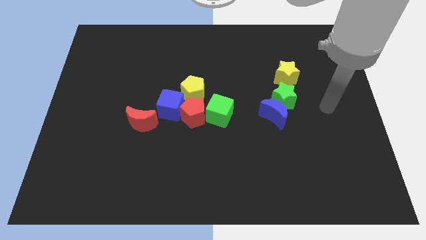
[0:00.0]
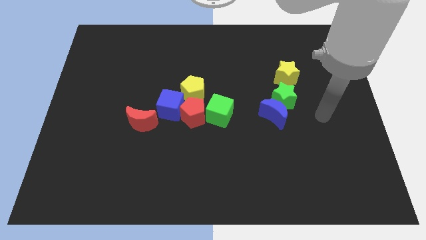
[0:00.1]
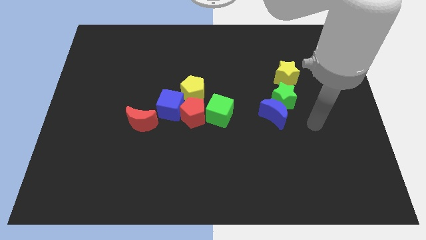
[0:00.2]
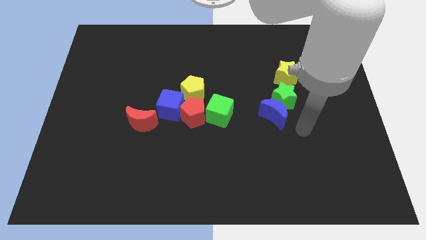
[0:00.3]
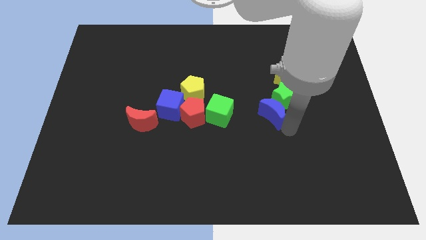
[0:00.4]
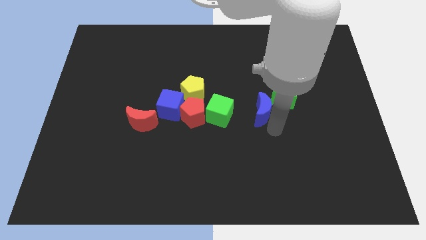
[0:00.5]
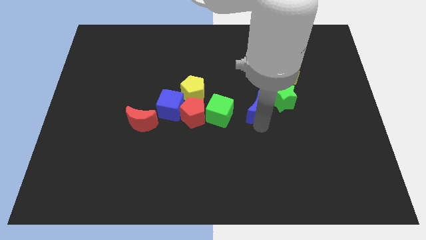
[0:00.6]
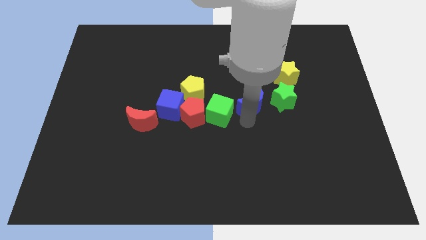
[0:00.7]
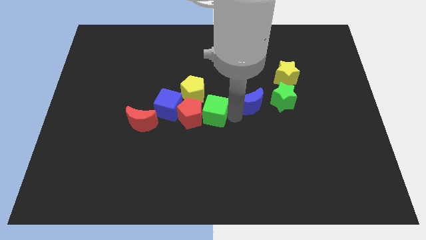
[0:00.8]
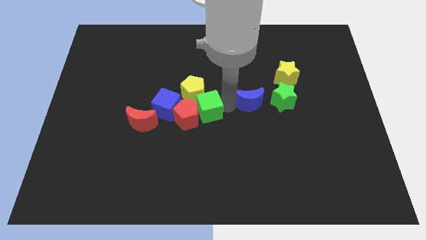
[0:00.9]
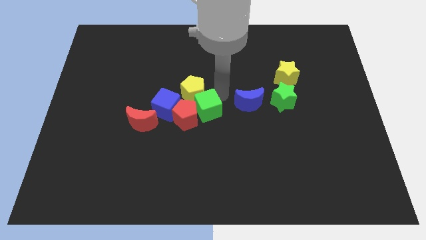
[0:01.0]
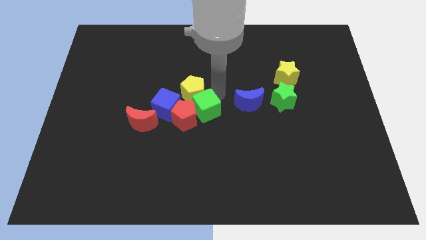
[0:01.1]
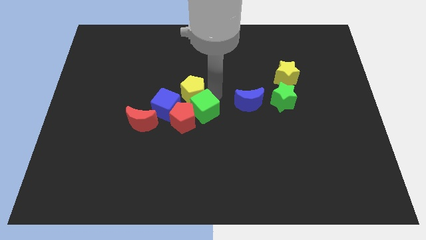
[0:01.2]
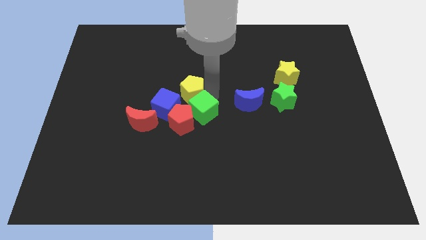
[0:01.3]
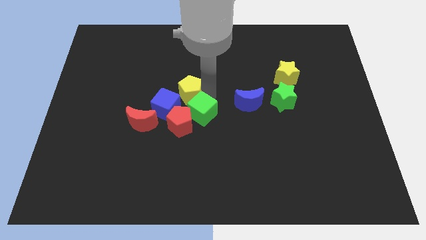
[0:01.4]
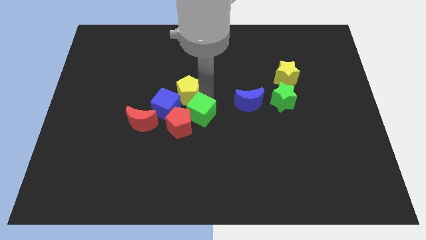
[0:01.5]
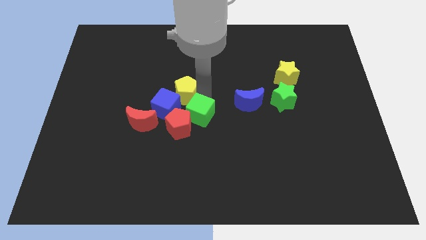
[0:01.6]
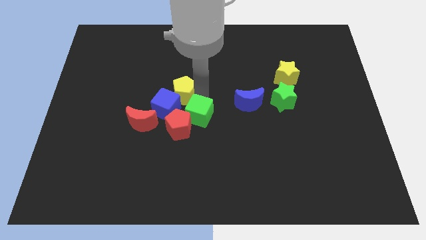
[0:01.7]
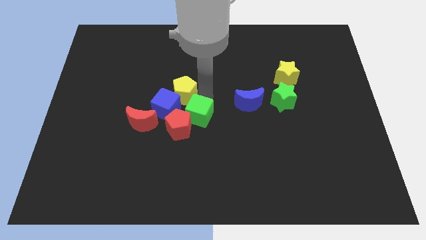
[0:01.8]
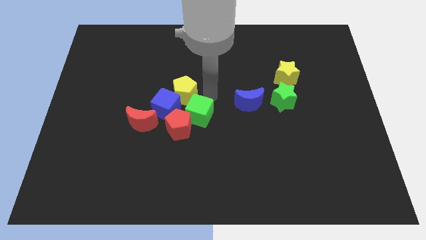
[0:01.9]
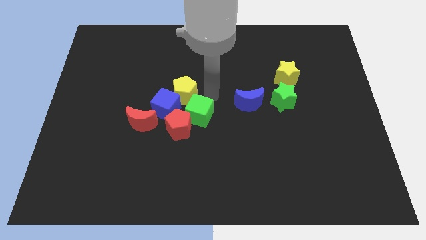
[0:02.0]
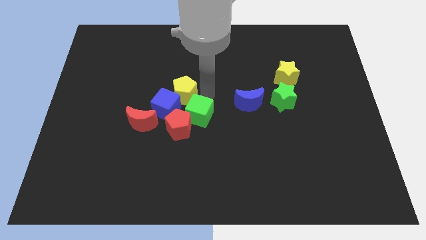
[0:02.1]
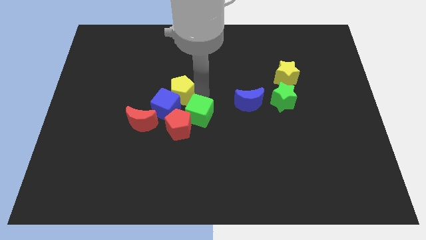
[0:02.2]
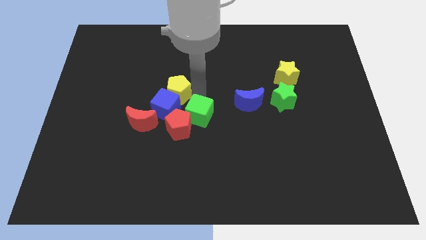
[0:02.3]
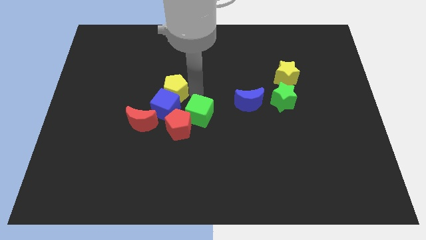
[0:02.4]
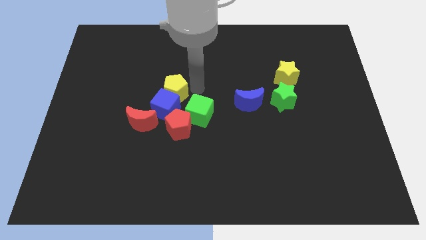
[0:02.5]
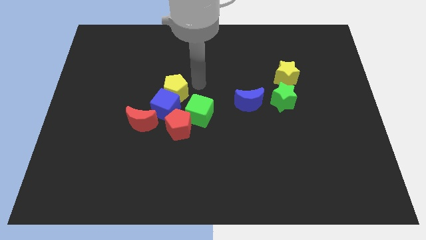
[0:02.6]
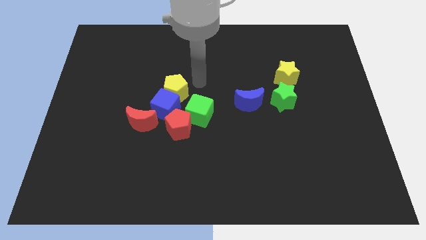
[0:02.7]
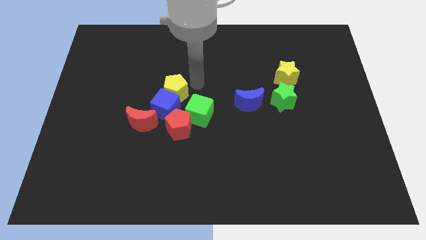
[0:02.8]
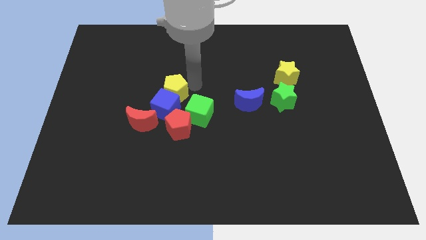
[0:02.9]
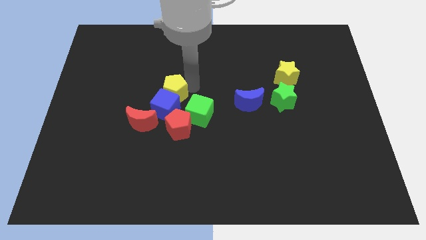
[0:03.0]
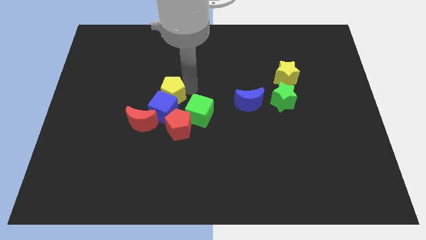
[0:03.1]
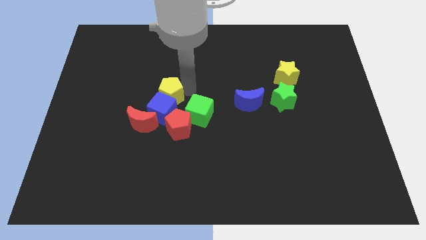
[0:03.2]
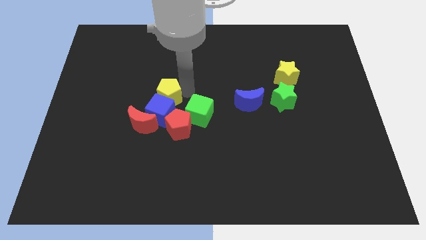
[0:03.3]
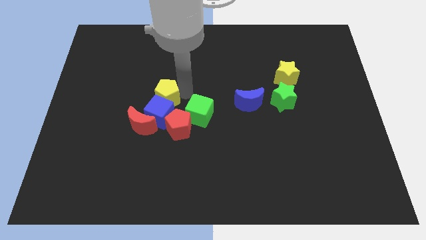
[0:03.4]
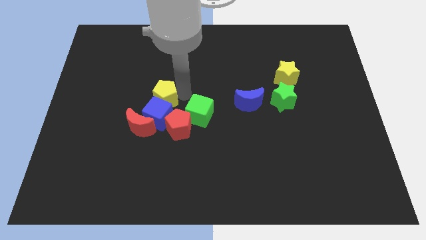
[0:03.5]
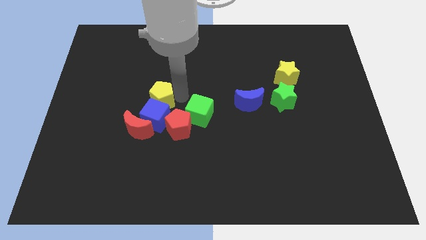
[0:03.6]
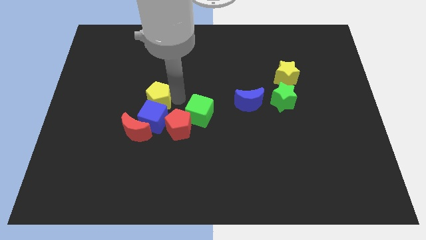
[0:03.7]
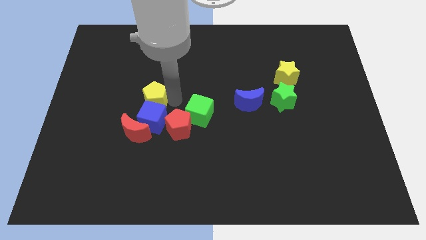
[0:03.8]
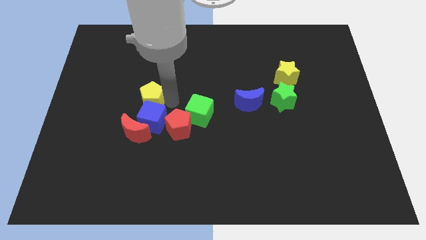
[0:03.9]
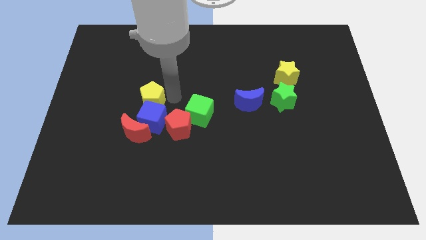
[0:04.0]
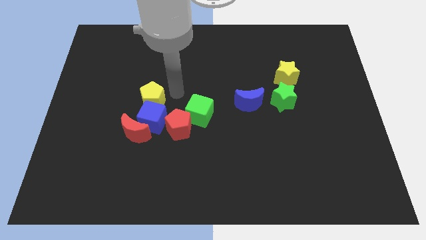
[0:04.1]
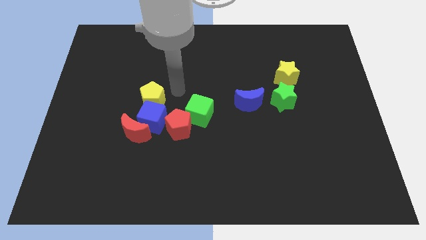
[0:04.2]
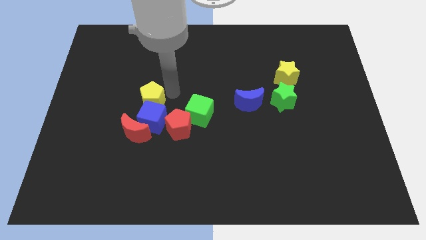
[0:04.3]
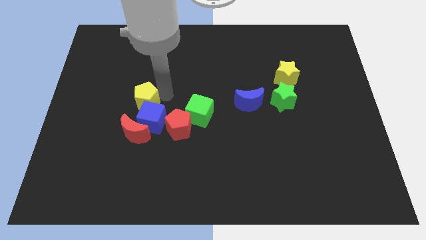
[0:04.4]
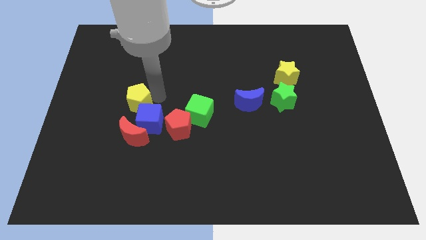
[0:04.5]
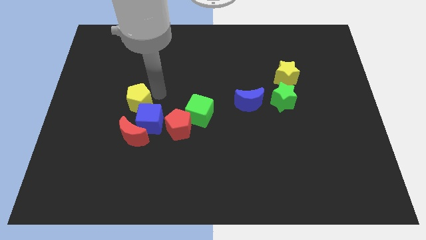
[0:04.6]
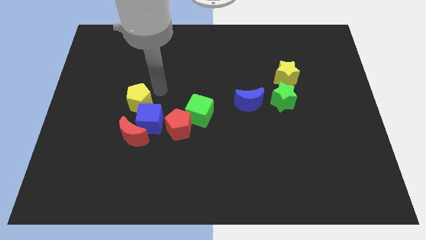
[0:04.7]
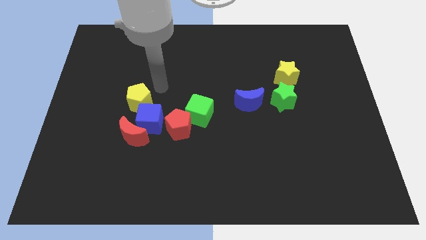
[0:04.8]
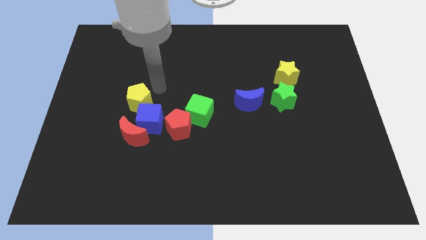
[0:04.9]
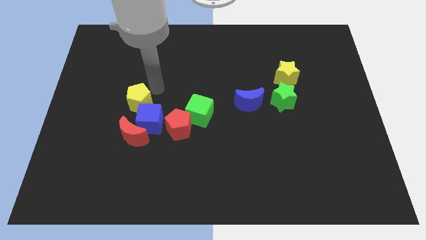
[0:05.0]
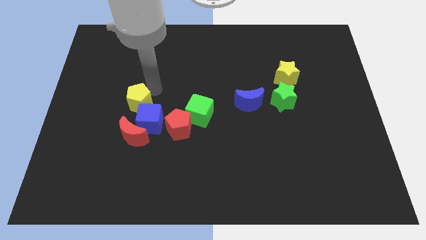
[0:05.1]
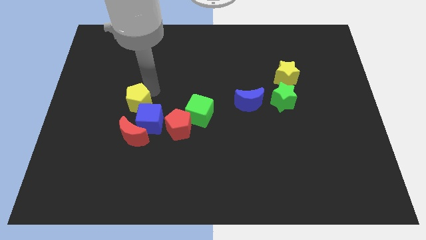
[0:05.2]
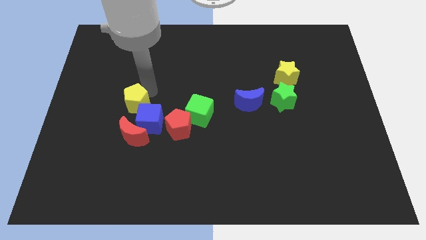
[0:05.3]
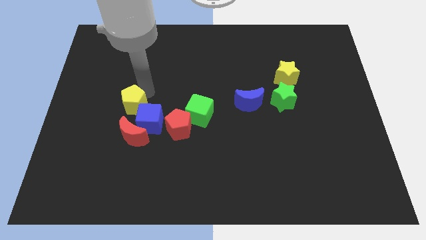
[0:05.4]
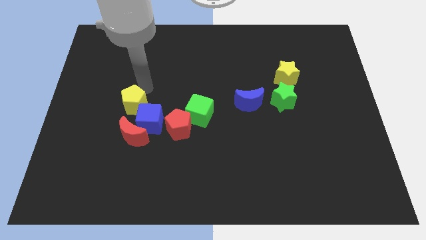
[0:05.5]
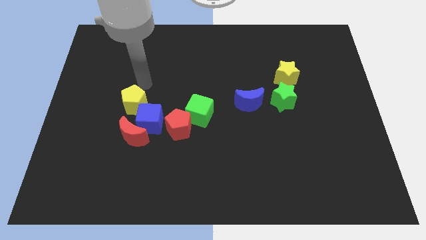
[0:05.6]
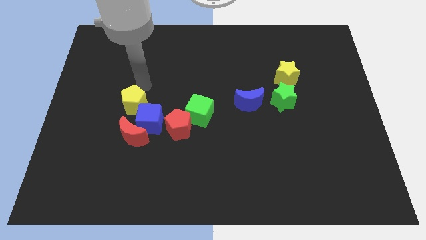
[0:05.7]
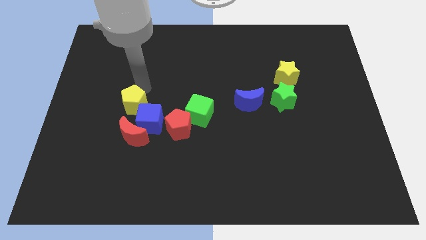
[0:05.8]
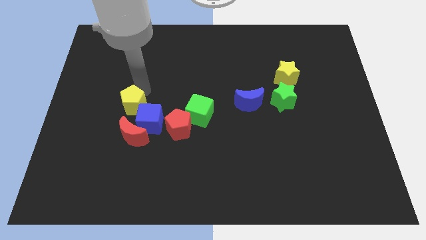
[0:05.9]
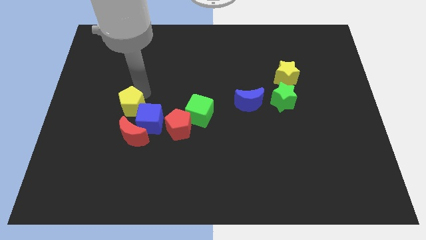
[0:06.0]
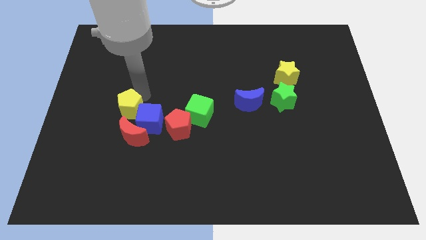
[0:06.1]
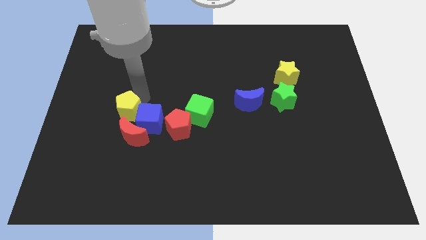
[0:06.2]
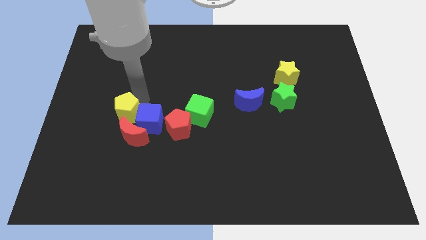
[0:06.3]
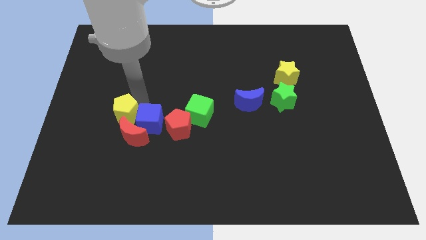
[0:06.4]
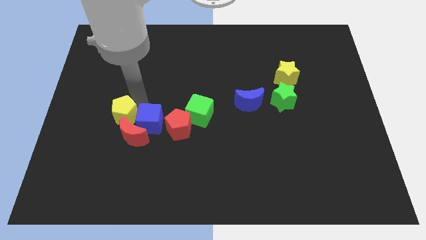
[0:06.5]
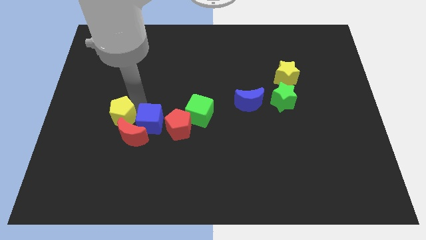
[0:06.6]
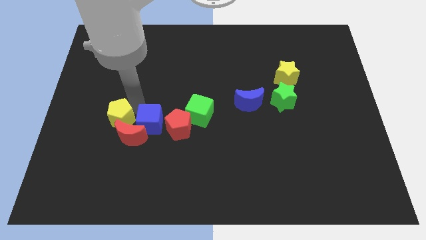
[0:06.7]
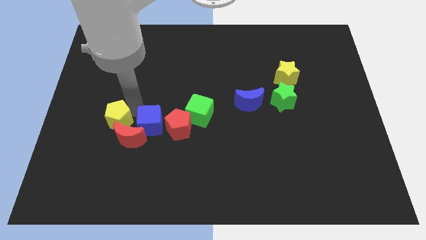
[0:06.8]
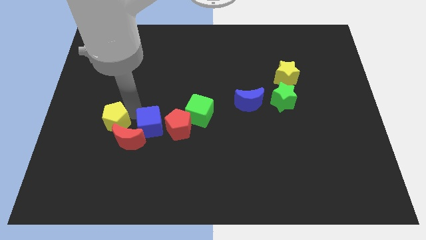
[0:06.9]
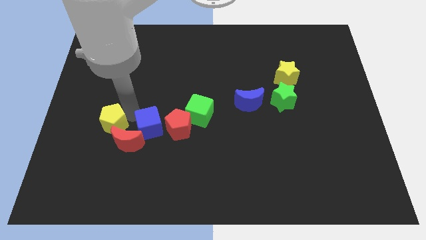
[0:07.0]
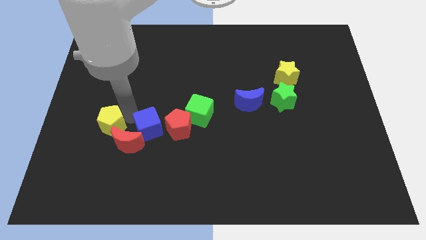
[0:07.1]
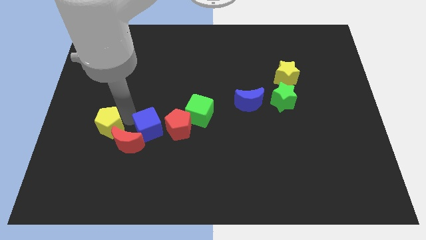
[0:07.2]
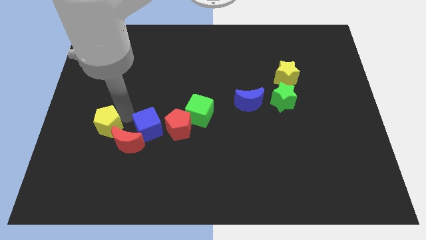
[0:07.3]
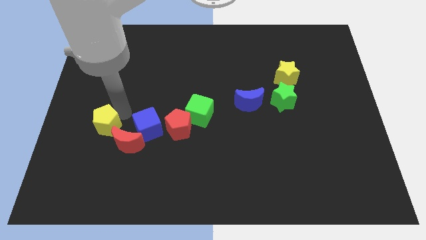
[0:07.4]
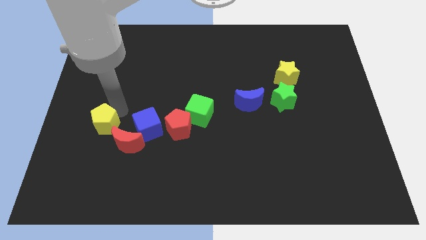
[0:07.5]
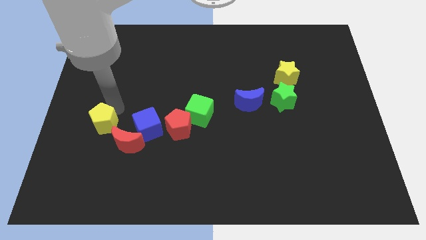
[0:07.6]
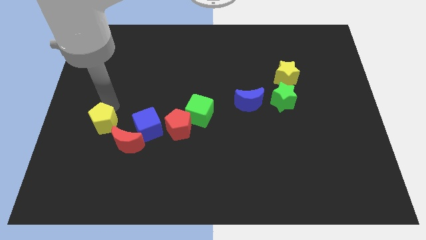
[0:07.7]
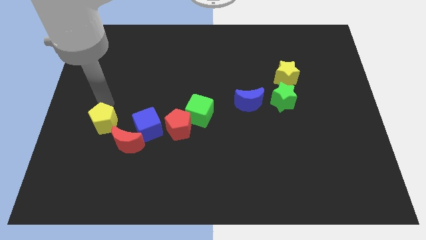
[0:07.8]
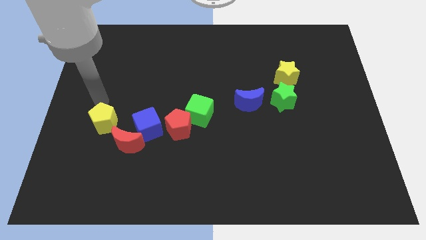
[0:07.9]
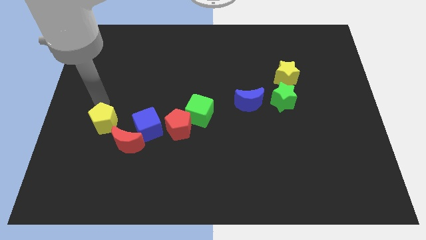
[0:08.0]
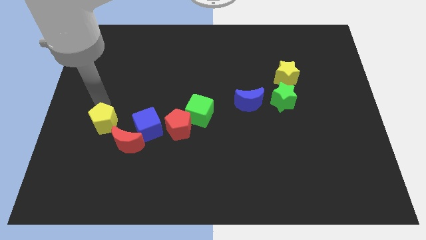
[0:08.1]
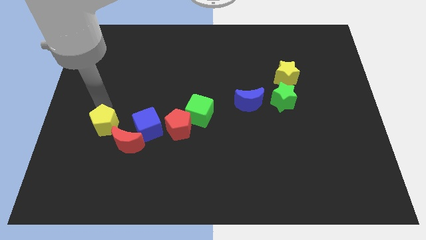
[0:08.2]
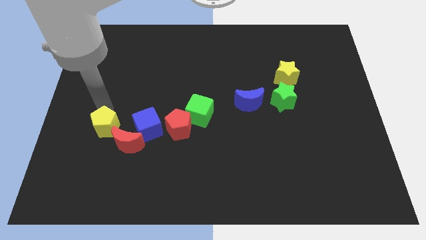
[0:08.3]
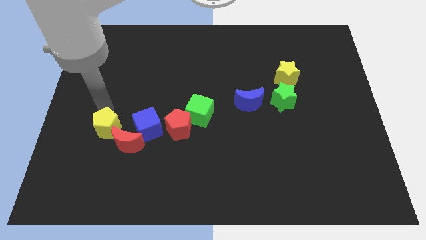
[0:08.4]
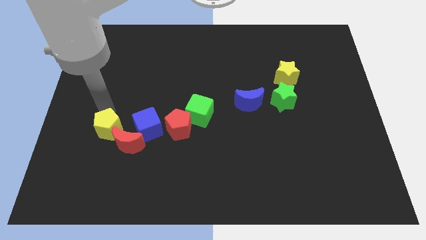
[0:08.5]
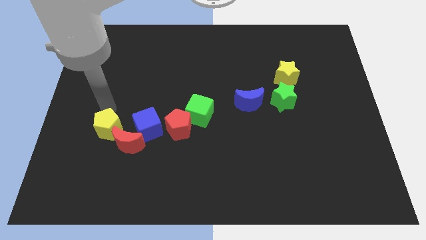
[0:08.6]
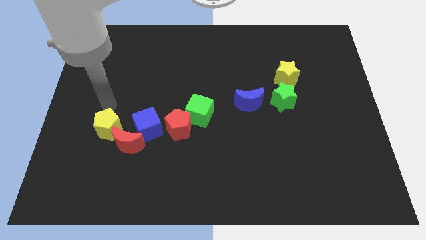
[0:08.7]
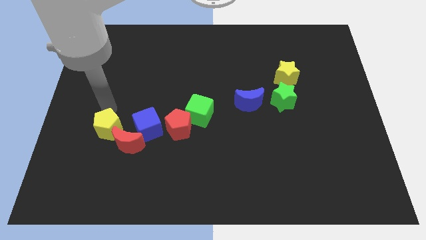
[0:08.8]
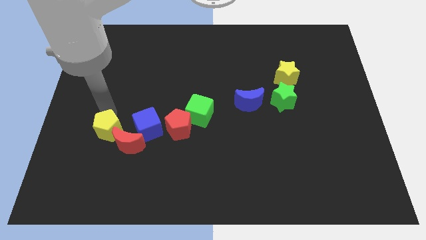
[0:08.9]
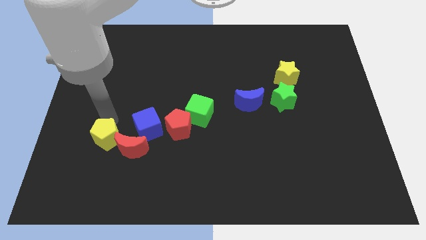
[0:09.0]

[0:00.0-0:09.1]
move the yellow pentagon downwards and left diagonally
